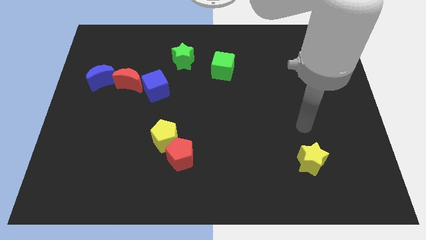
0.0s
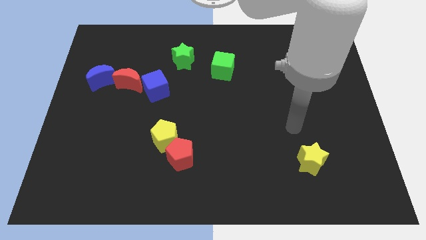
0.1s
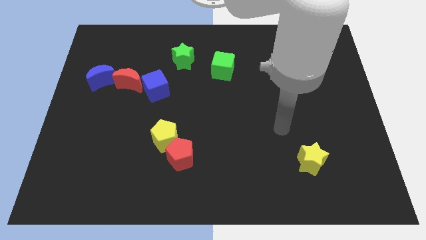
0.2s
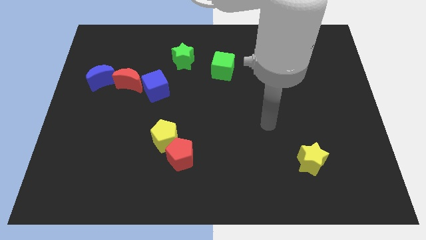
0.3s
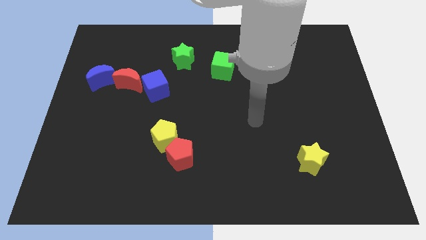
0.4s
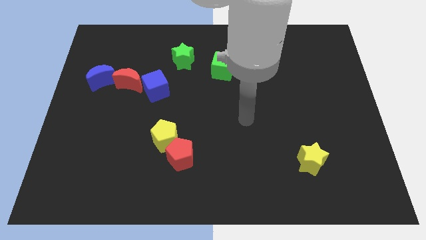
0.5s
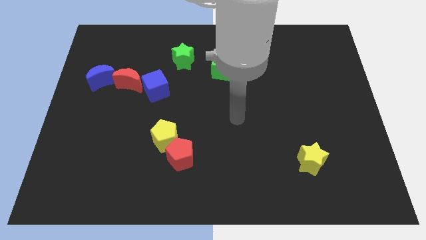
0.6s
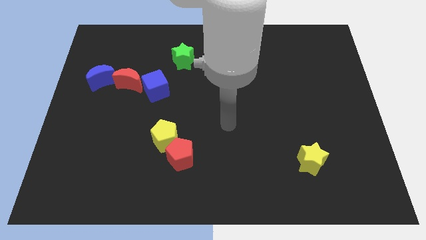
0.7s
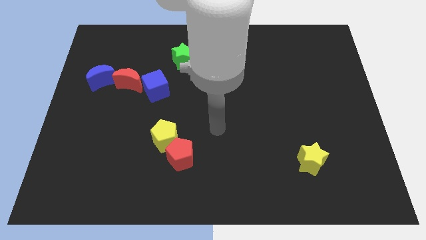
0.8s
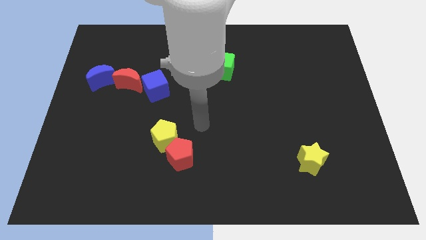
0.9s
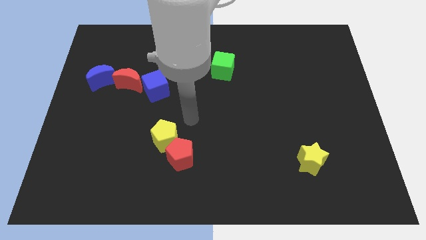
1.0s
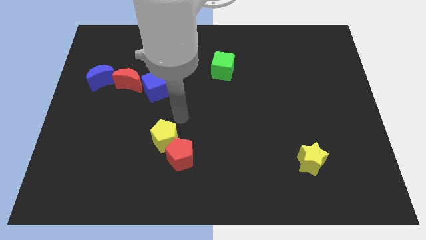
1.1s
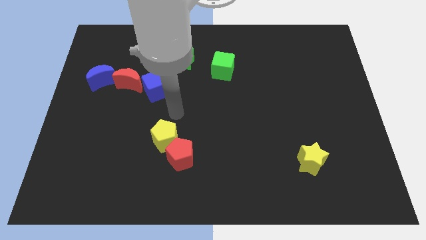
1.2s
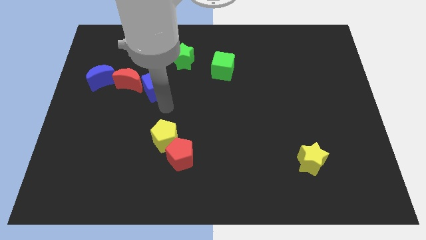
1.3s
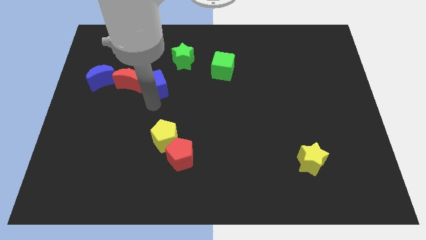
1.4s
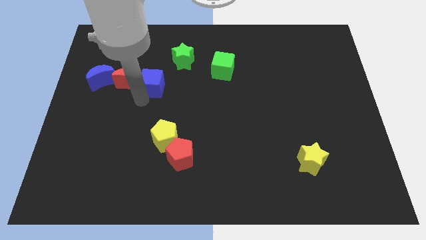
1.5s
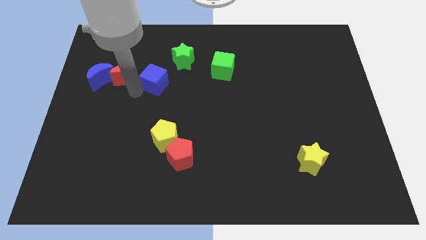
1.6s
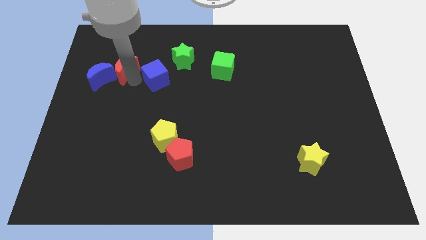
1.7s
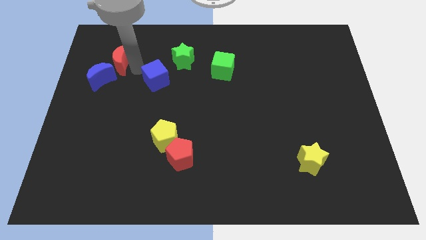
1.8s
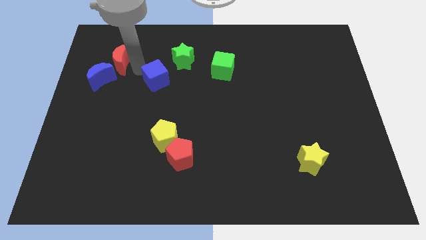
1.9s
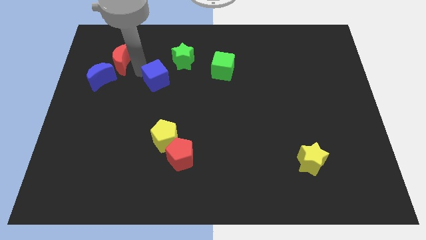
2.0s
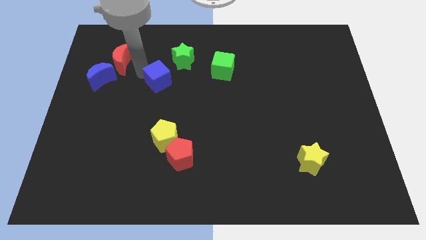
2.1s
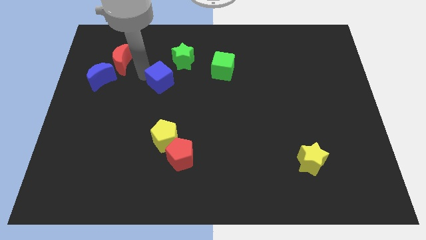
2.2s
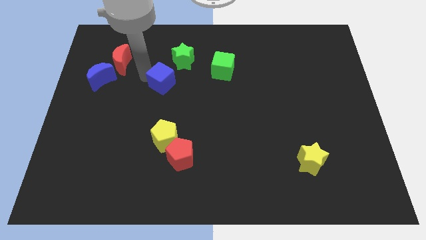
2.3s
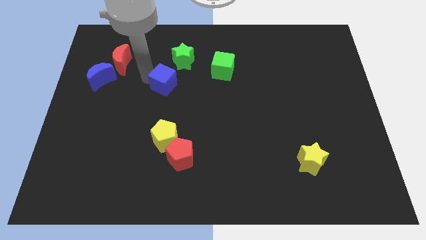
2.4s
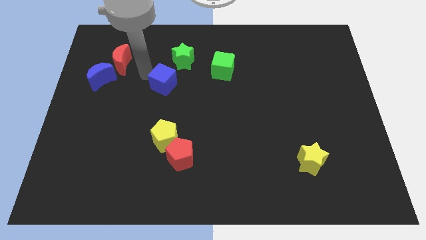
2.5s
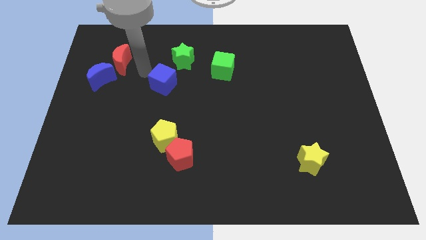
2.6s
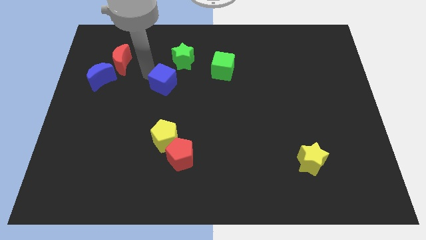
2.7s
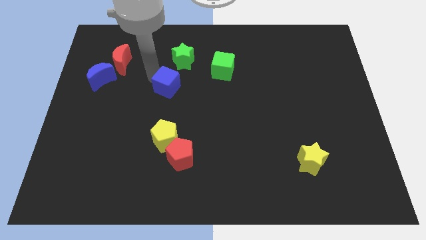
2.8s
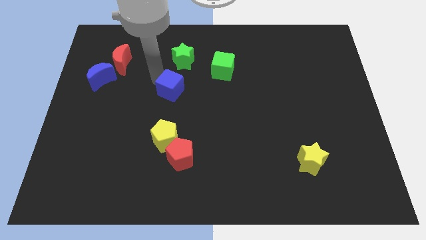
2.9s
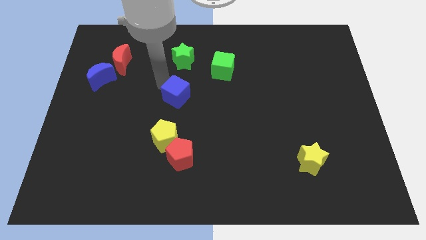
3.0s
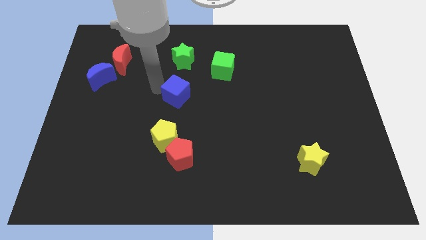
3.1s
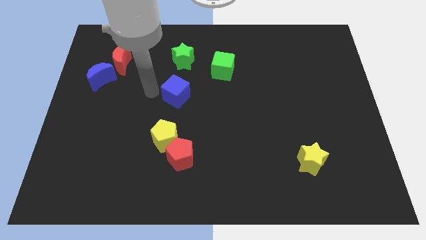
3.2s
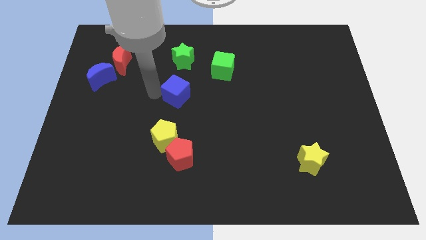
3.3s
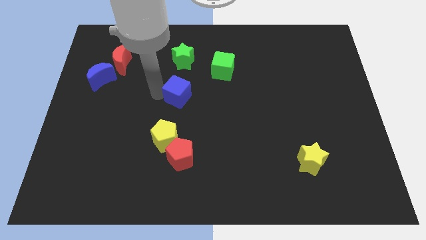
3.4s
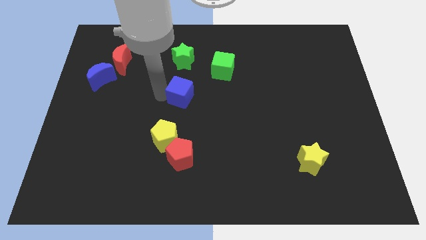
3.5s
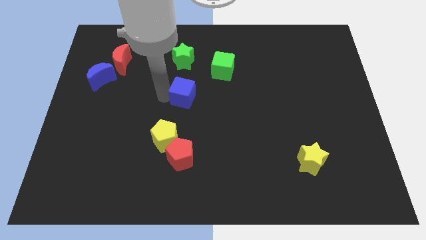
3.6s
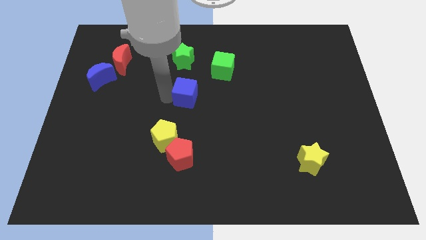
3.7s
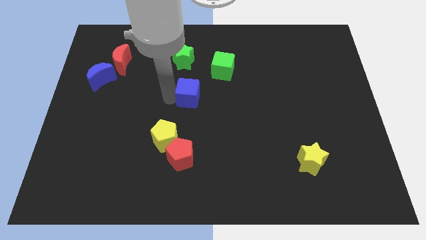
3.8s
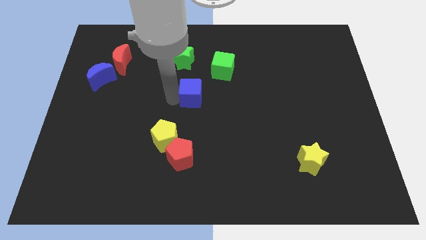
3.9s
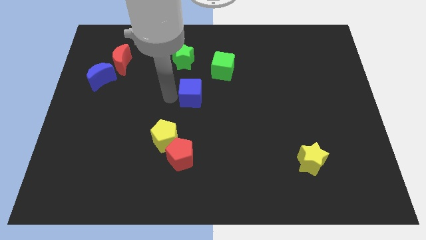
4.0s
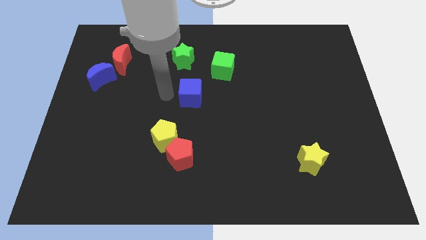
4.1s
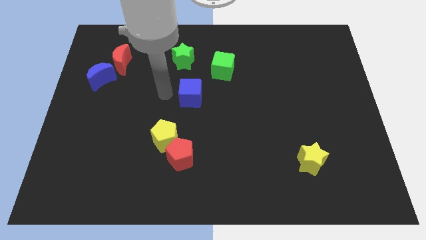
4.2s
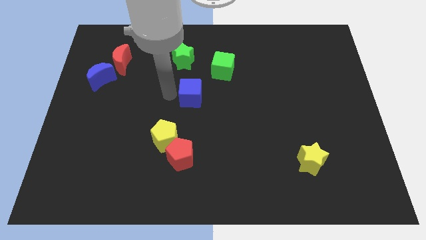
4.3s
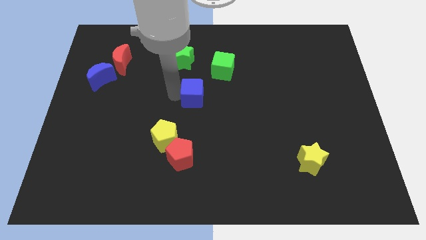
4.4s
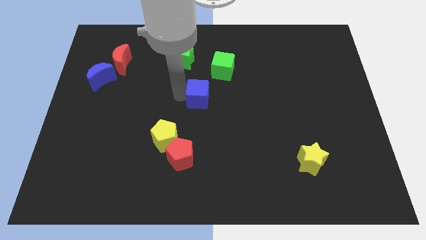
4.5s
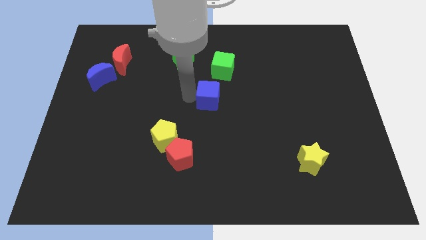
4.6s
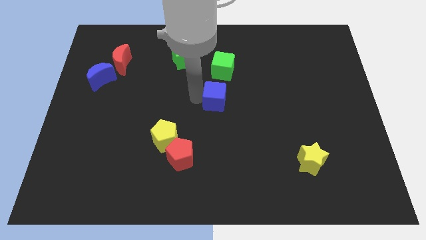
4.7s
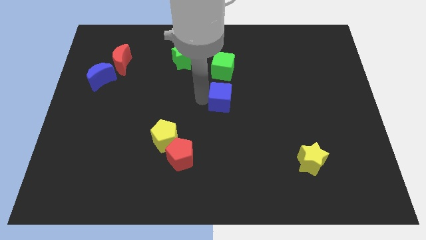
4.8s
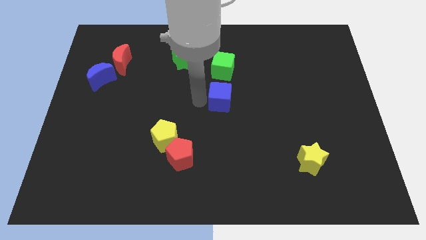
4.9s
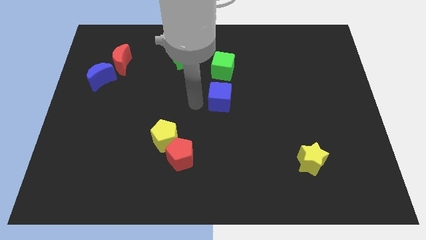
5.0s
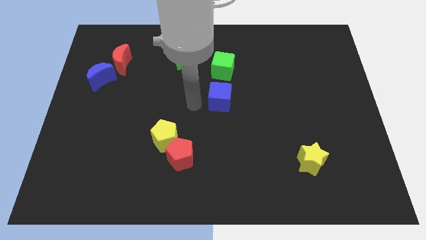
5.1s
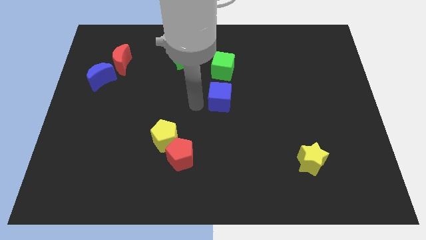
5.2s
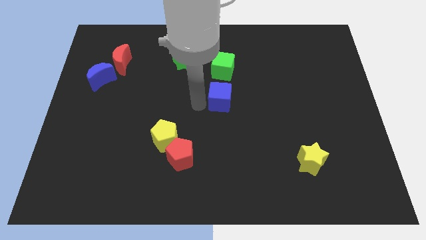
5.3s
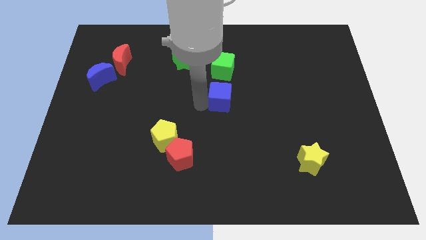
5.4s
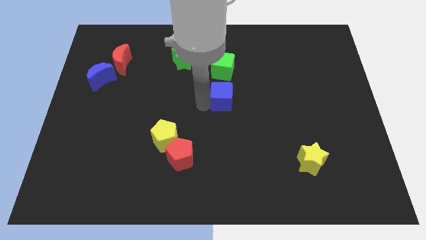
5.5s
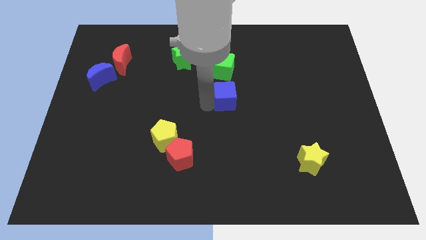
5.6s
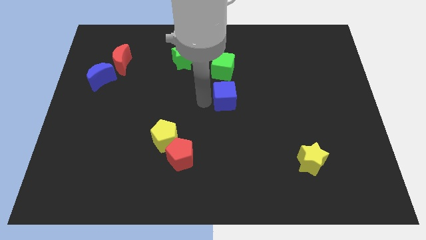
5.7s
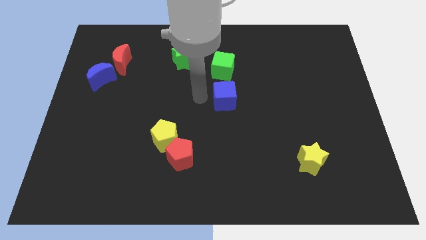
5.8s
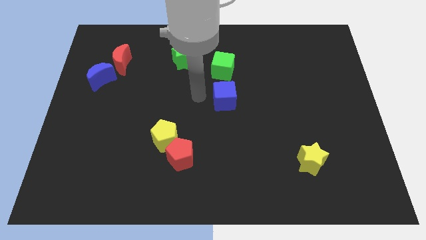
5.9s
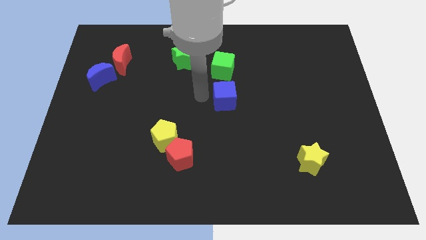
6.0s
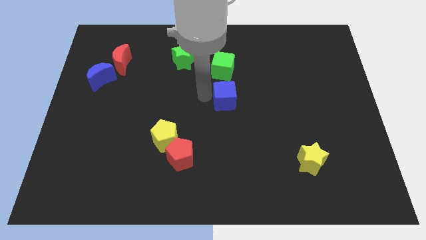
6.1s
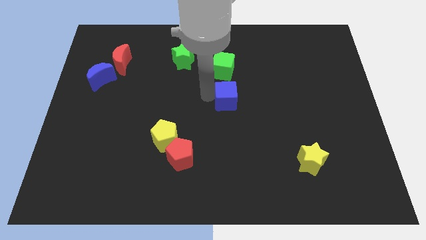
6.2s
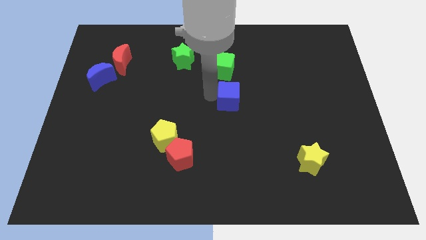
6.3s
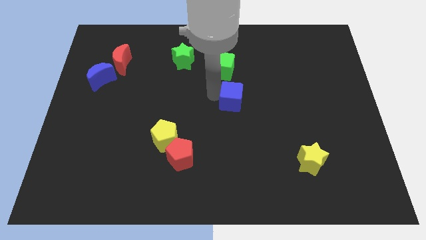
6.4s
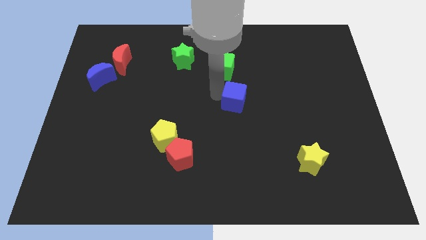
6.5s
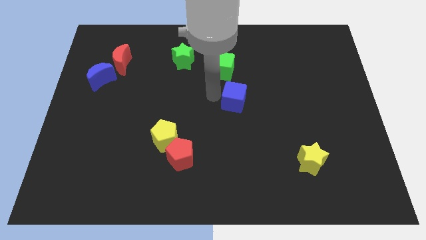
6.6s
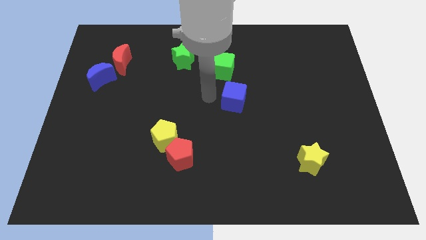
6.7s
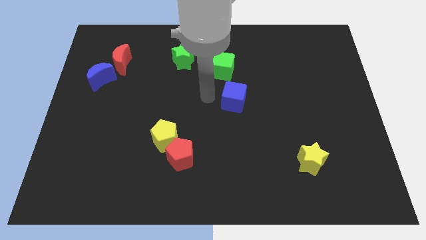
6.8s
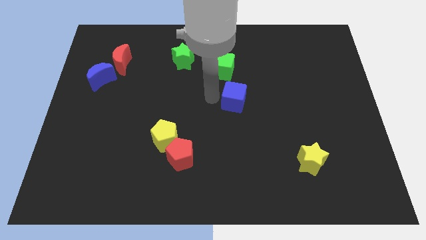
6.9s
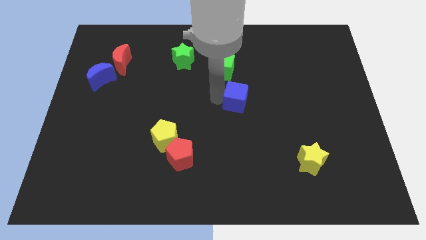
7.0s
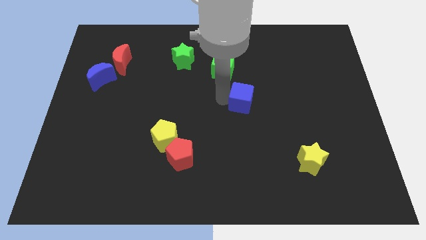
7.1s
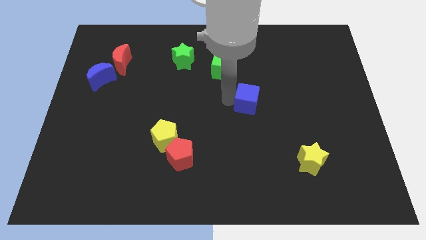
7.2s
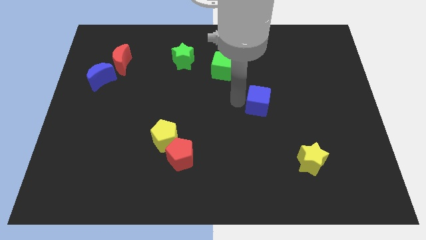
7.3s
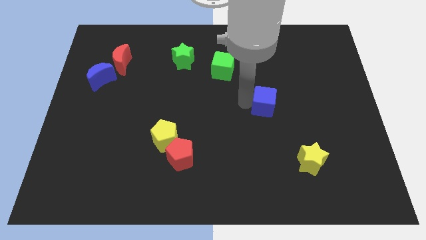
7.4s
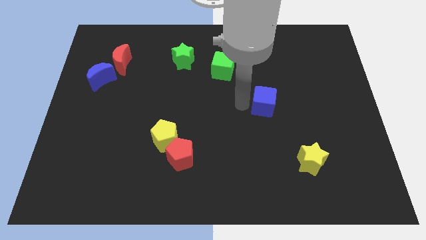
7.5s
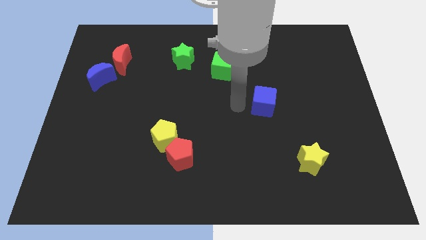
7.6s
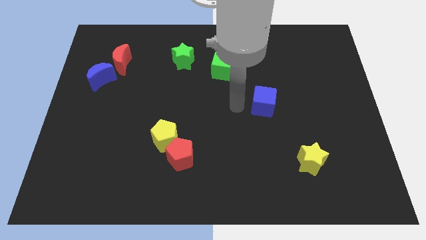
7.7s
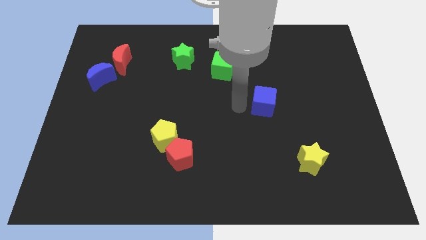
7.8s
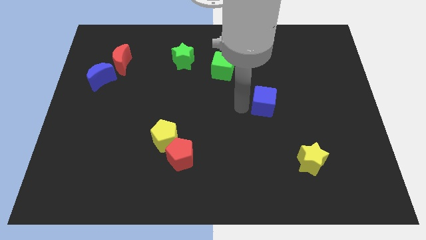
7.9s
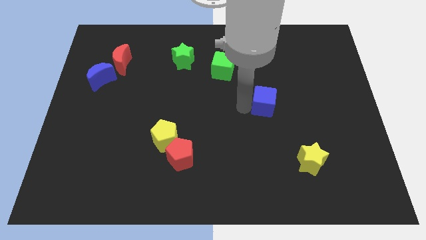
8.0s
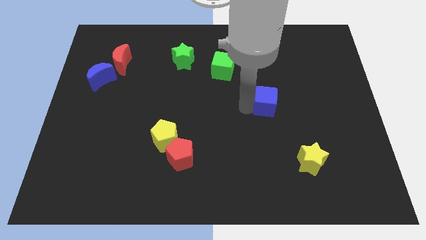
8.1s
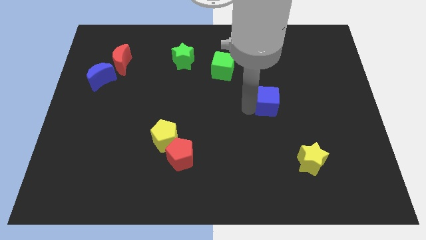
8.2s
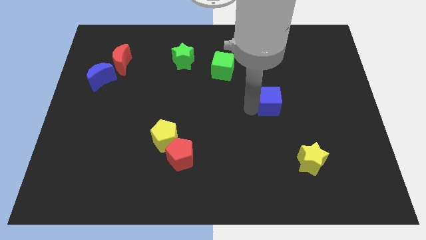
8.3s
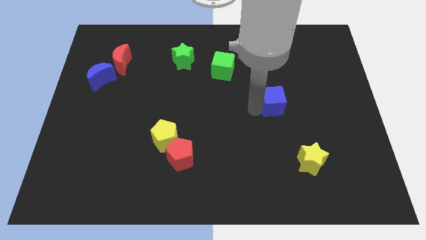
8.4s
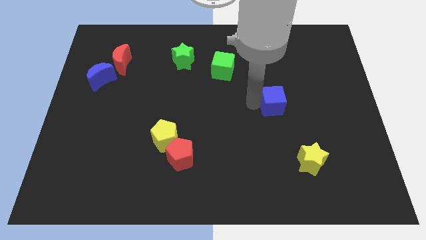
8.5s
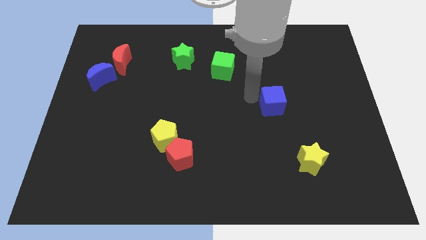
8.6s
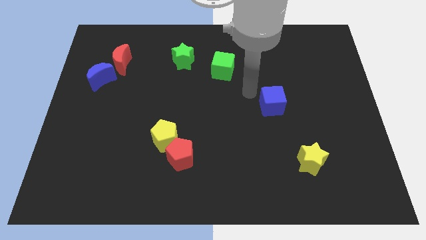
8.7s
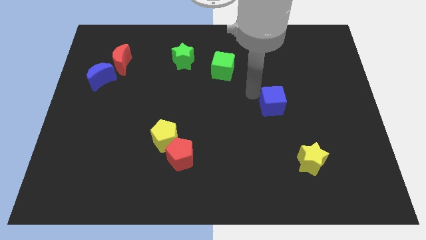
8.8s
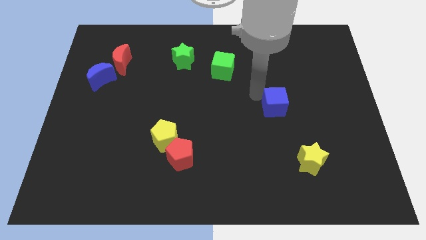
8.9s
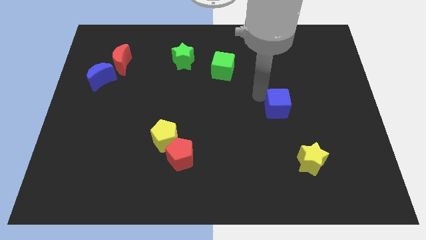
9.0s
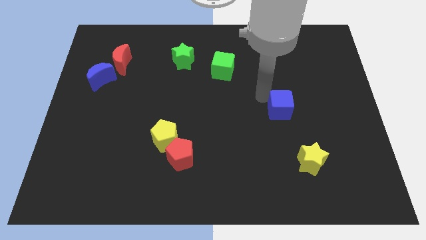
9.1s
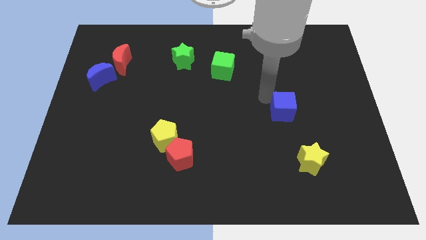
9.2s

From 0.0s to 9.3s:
slide the blue cube to the top of the yellow star
